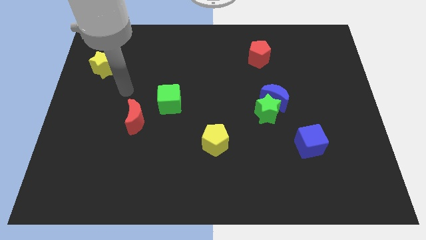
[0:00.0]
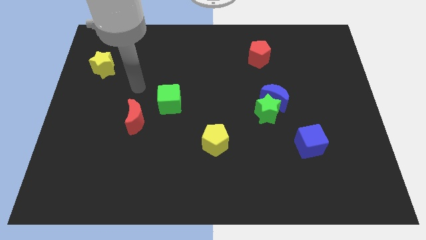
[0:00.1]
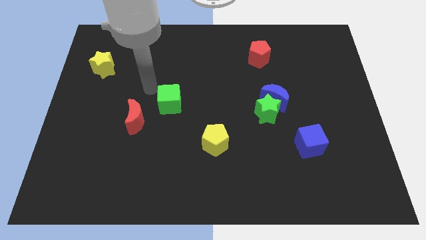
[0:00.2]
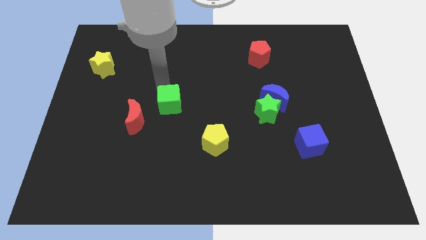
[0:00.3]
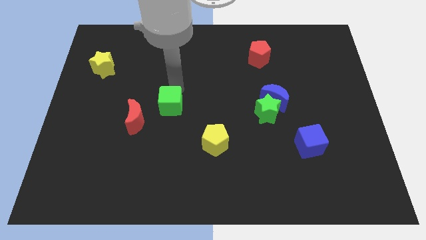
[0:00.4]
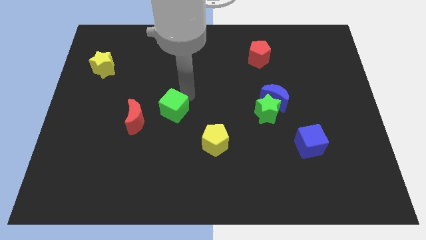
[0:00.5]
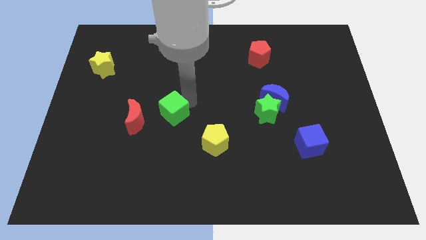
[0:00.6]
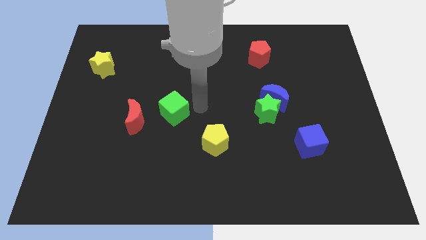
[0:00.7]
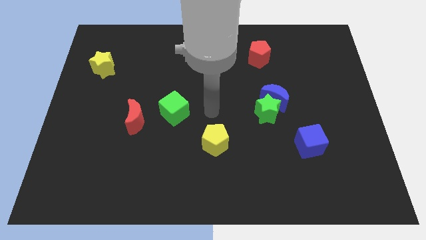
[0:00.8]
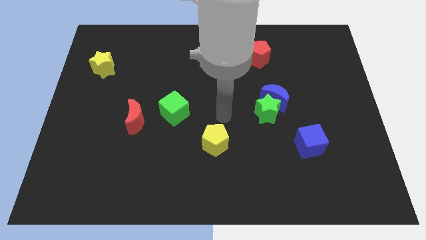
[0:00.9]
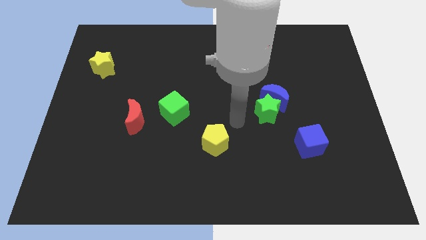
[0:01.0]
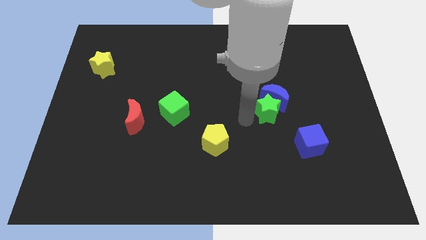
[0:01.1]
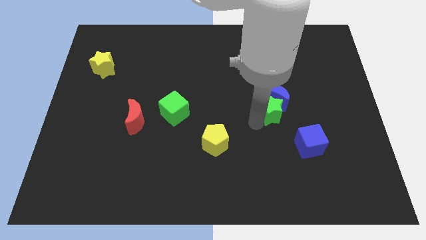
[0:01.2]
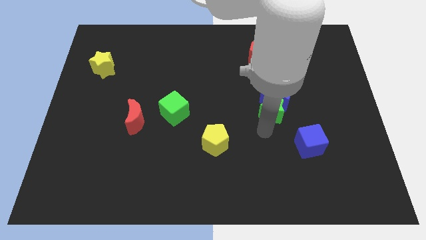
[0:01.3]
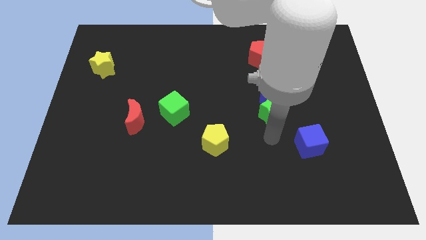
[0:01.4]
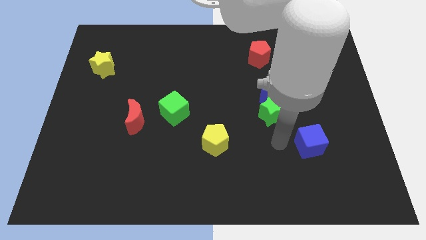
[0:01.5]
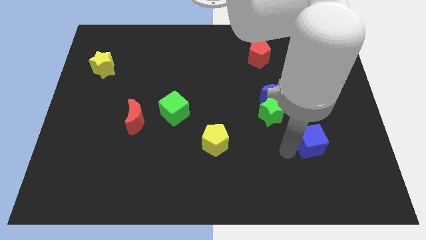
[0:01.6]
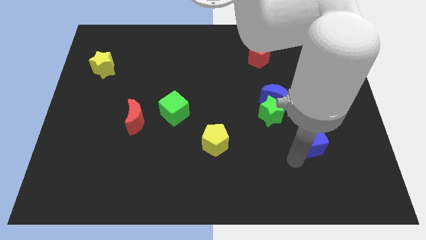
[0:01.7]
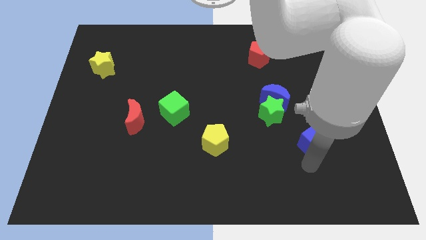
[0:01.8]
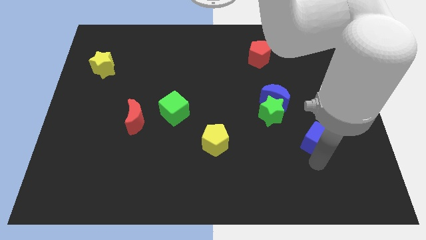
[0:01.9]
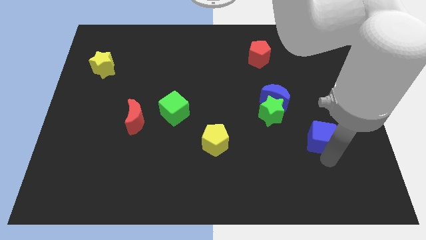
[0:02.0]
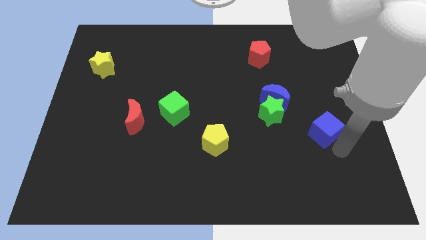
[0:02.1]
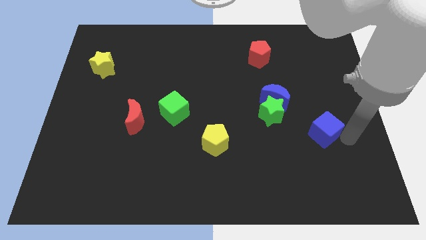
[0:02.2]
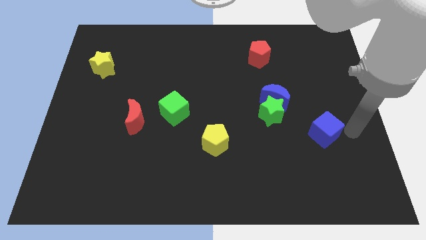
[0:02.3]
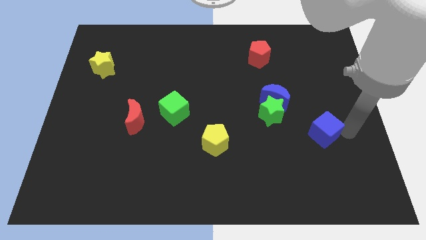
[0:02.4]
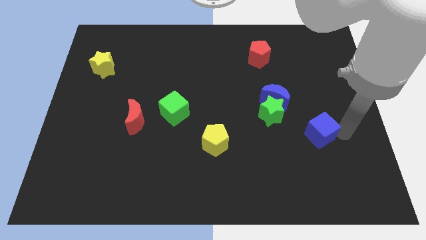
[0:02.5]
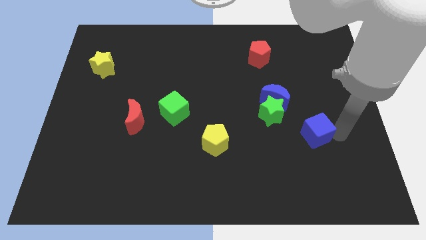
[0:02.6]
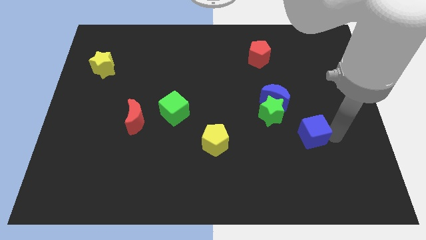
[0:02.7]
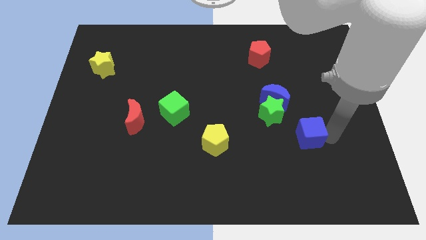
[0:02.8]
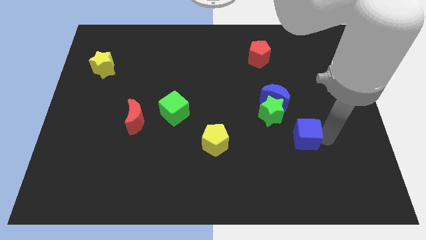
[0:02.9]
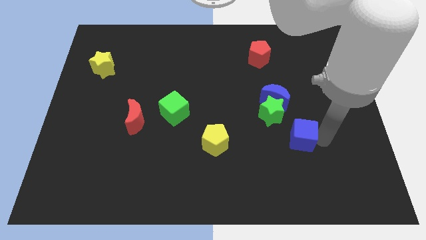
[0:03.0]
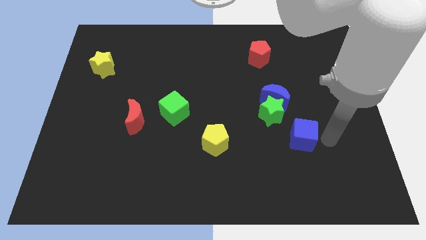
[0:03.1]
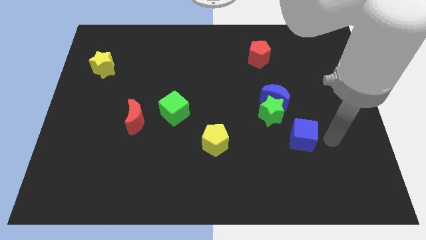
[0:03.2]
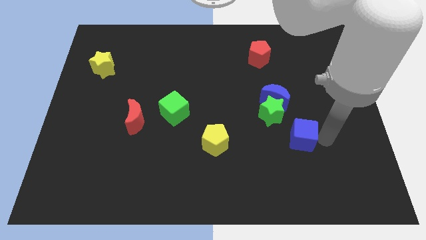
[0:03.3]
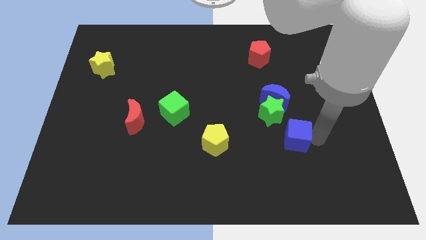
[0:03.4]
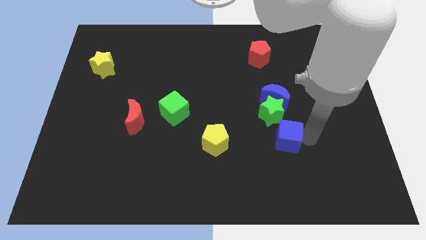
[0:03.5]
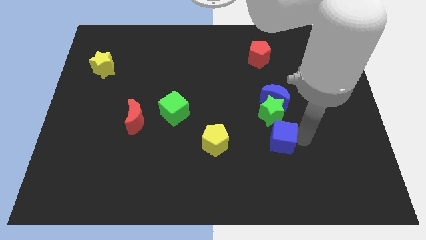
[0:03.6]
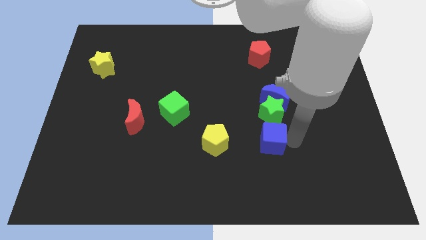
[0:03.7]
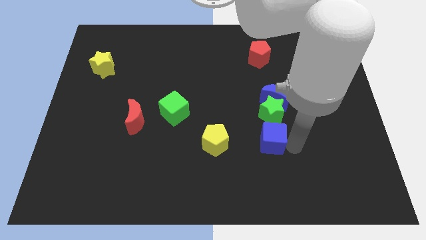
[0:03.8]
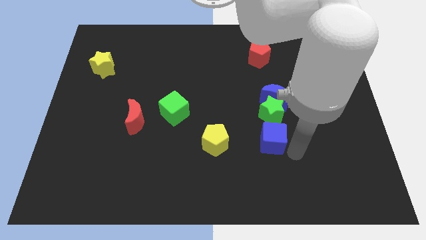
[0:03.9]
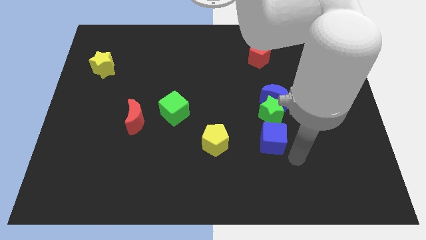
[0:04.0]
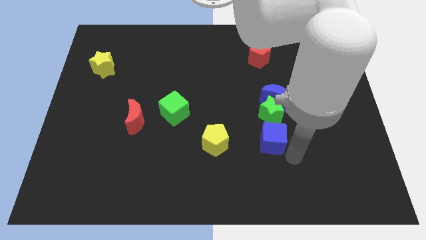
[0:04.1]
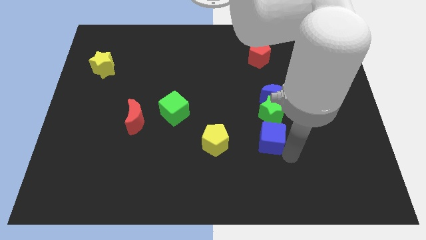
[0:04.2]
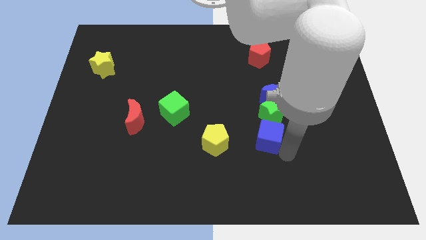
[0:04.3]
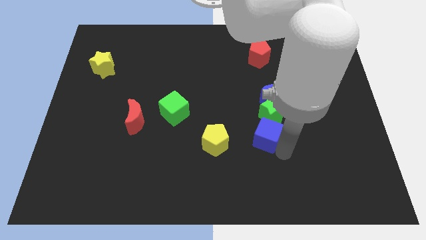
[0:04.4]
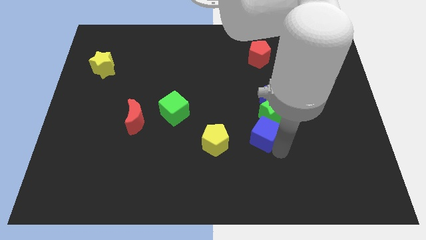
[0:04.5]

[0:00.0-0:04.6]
slide the blue cube a bit upwards and then to the left

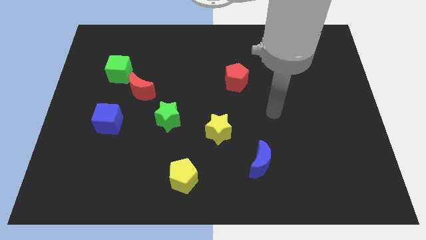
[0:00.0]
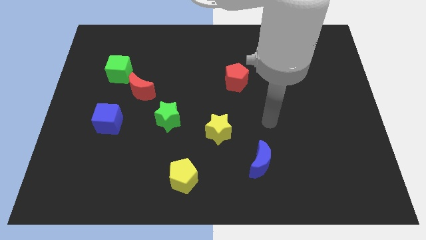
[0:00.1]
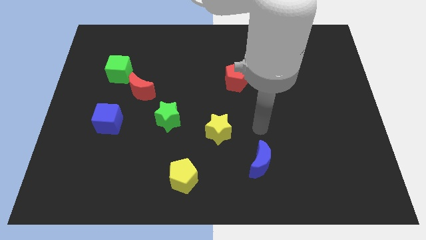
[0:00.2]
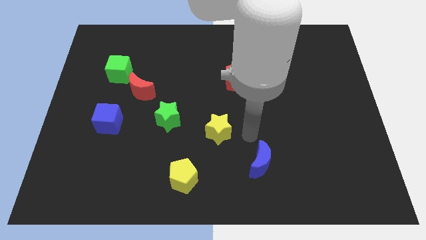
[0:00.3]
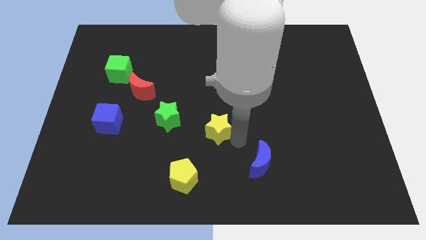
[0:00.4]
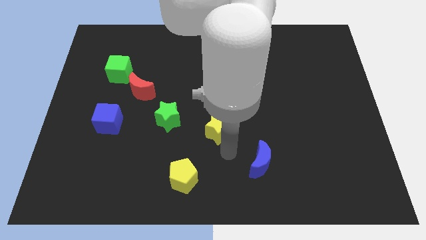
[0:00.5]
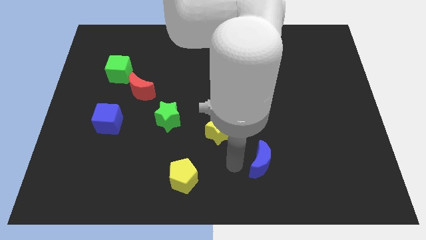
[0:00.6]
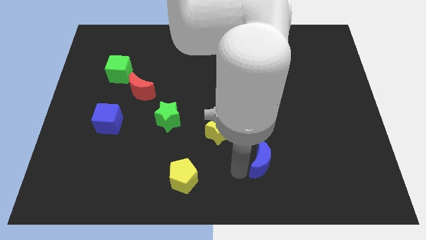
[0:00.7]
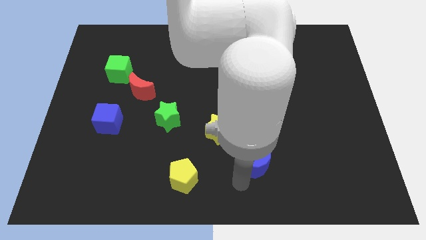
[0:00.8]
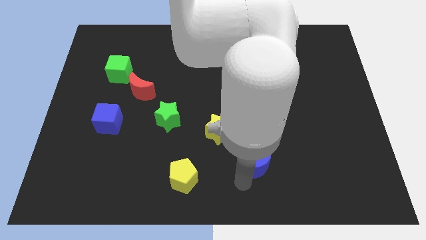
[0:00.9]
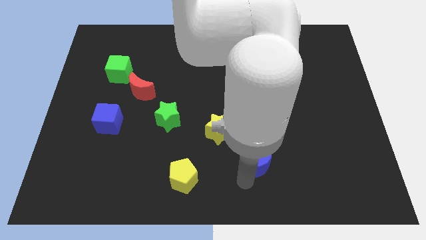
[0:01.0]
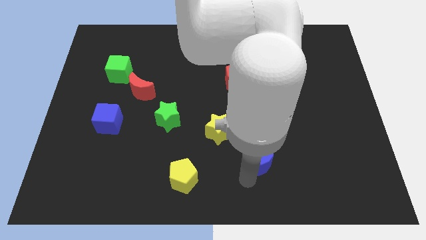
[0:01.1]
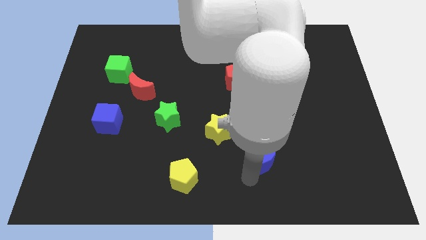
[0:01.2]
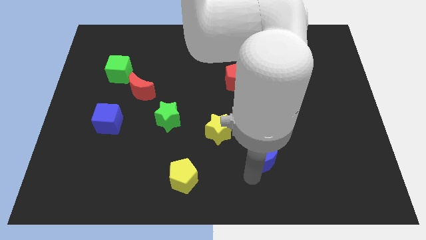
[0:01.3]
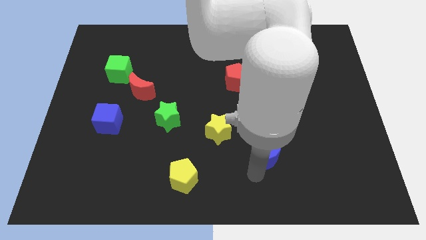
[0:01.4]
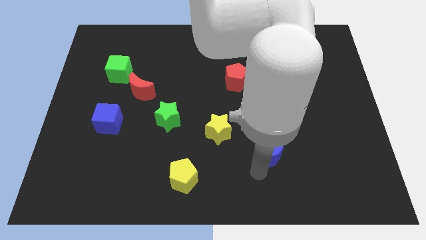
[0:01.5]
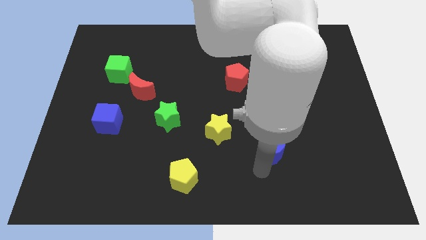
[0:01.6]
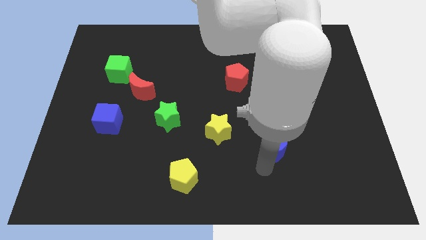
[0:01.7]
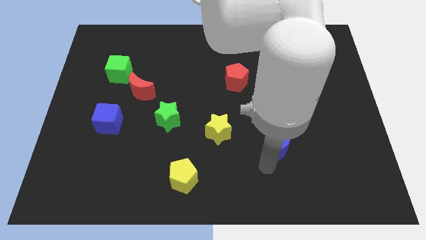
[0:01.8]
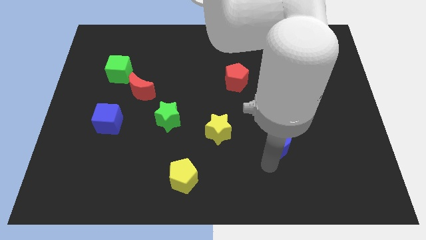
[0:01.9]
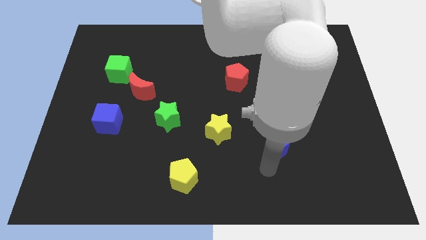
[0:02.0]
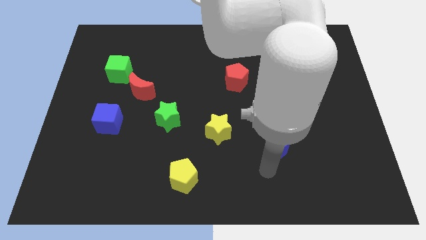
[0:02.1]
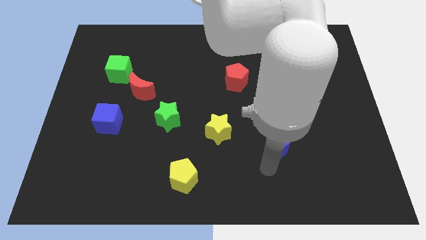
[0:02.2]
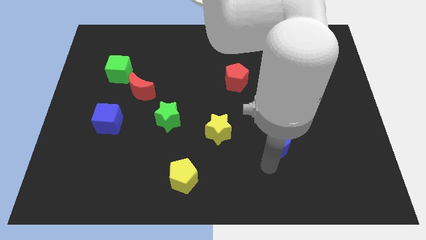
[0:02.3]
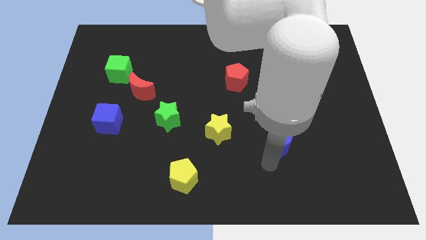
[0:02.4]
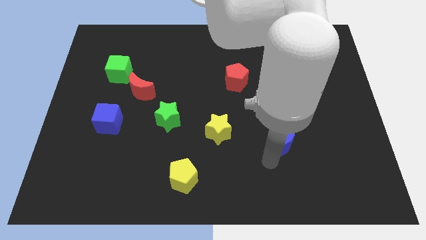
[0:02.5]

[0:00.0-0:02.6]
slightly push the blue moon up and to the right diagonally

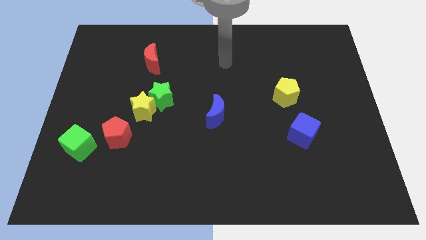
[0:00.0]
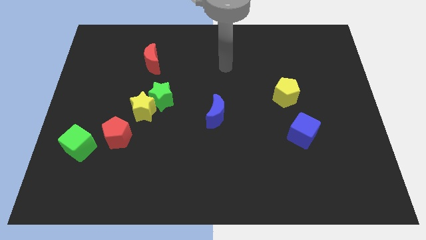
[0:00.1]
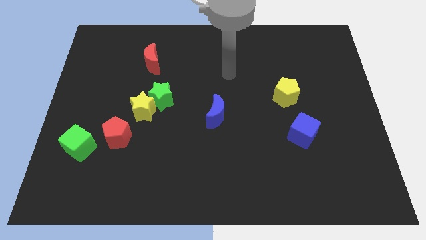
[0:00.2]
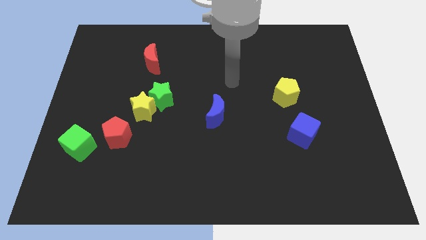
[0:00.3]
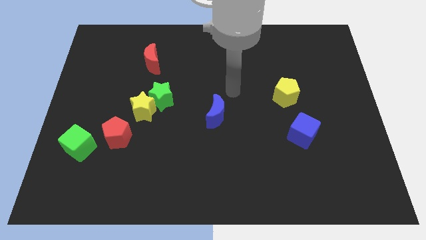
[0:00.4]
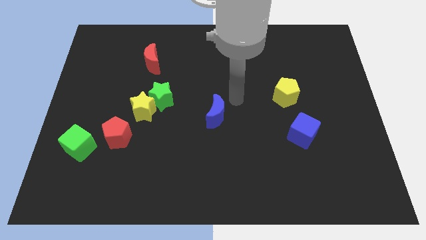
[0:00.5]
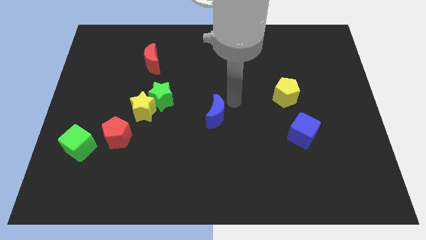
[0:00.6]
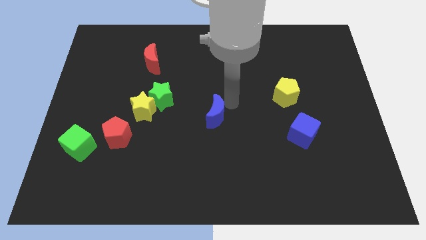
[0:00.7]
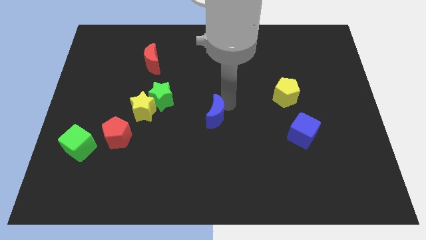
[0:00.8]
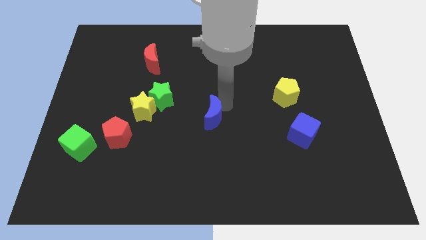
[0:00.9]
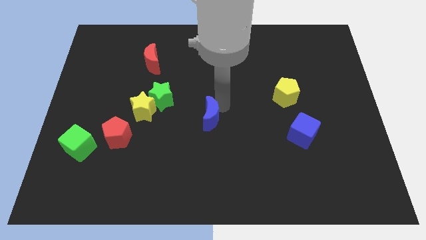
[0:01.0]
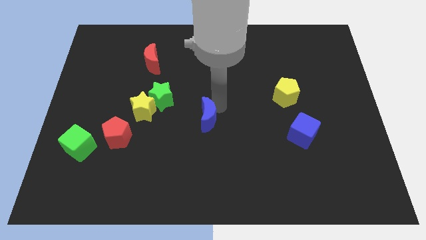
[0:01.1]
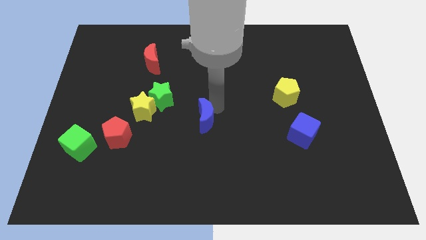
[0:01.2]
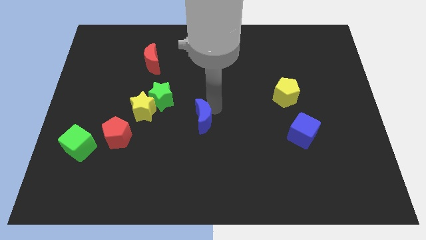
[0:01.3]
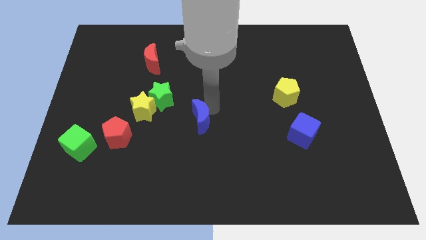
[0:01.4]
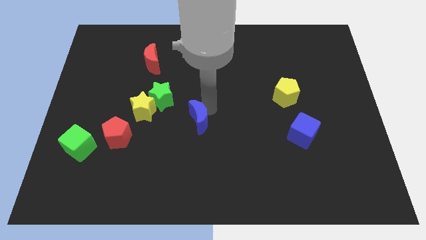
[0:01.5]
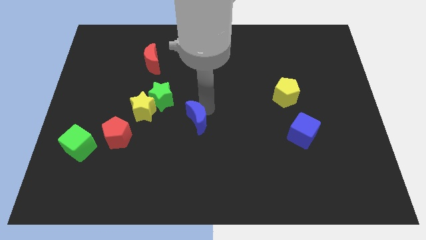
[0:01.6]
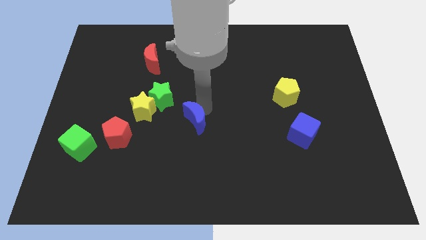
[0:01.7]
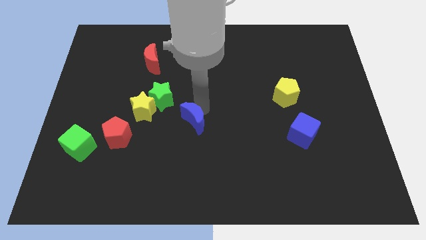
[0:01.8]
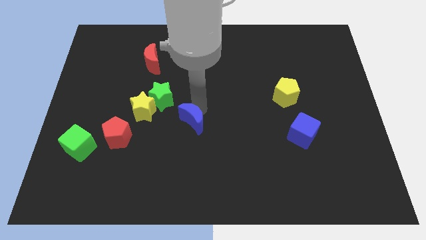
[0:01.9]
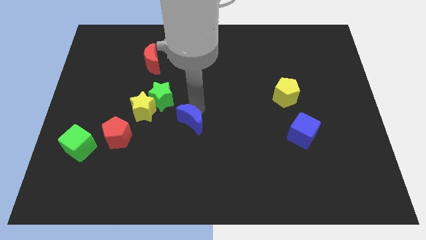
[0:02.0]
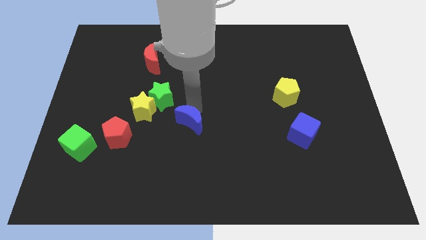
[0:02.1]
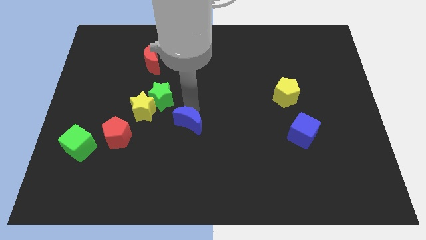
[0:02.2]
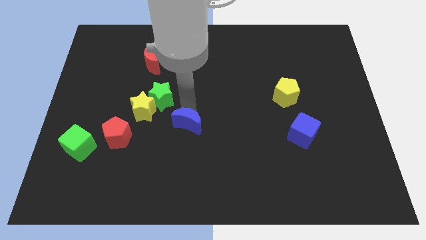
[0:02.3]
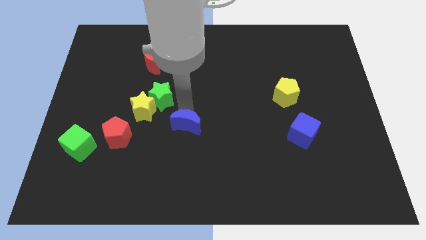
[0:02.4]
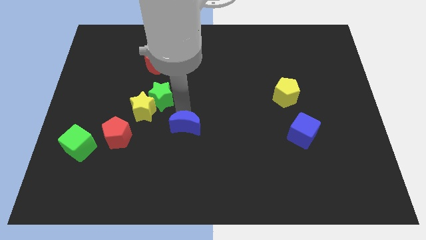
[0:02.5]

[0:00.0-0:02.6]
move the blue moon a little bit down and to the left diagonally
